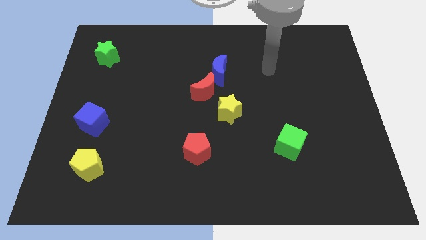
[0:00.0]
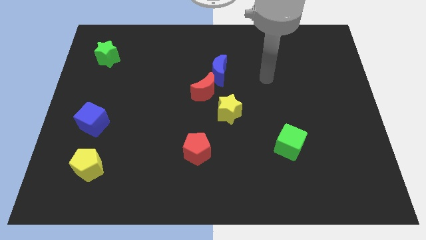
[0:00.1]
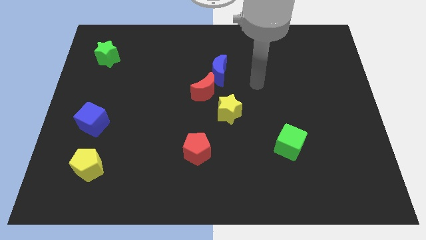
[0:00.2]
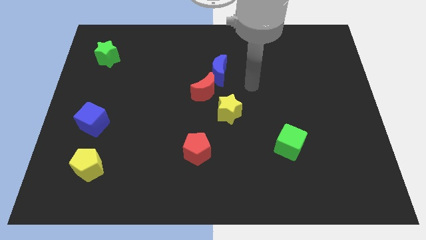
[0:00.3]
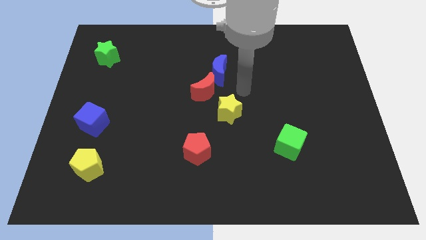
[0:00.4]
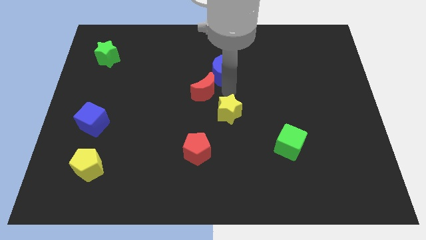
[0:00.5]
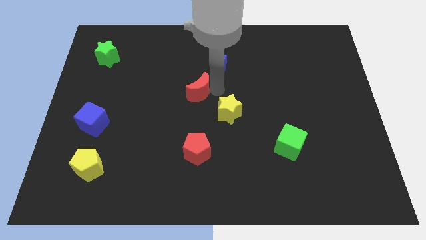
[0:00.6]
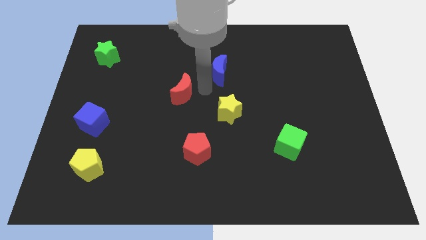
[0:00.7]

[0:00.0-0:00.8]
separate the blue moon from the red moon

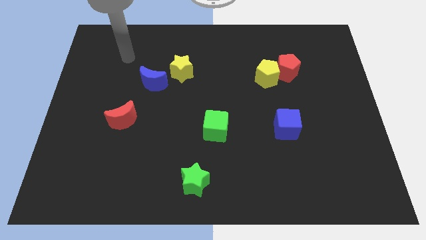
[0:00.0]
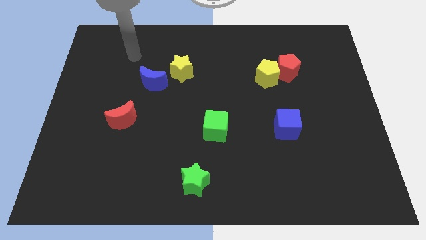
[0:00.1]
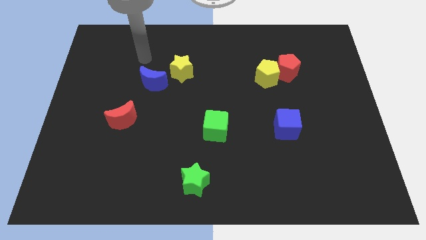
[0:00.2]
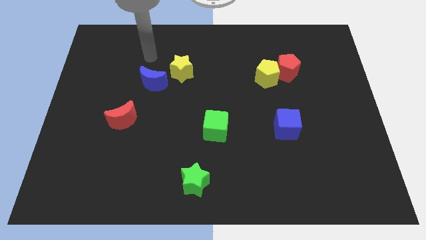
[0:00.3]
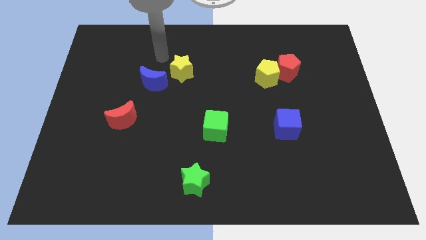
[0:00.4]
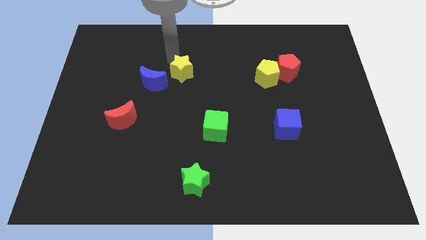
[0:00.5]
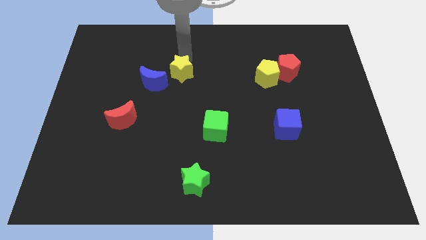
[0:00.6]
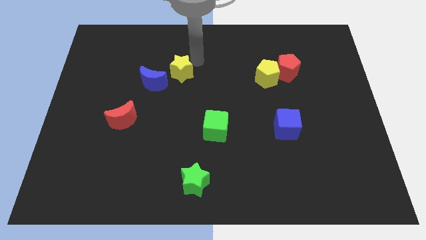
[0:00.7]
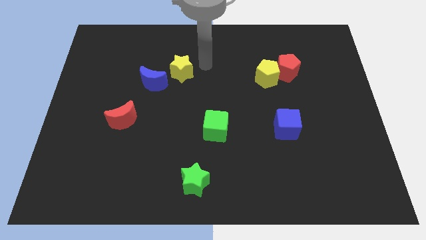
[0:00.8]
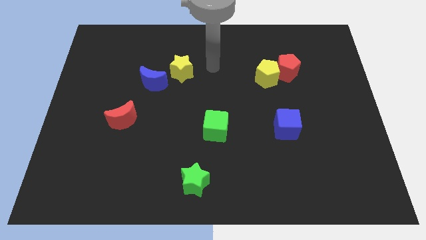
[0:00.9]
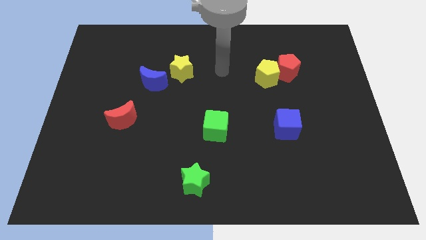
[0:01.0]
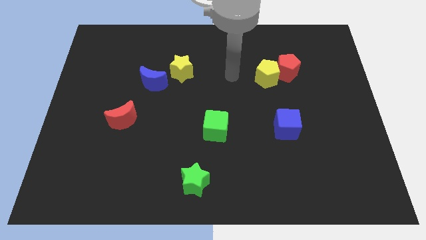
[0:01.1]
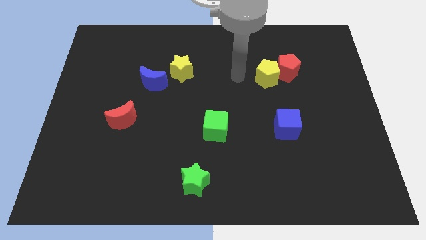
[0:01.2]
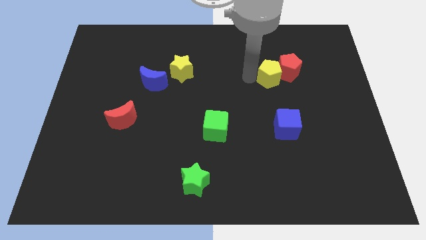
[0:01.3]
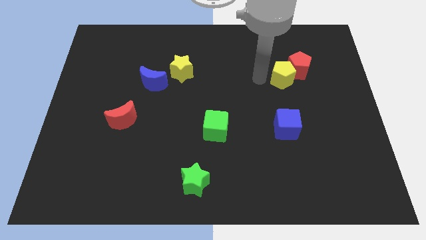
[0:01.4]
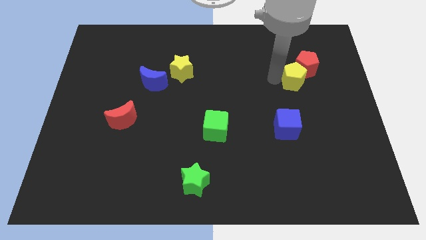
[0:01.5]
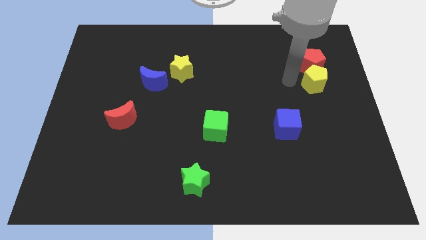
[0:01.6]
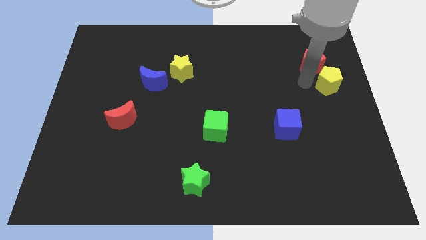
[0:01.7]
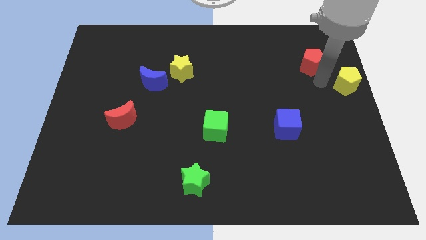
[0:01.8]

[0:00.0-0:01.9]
pull the red pentagon apart from the yellow pentagon

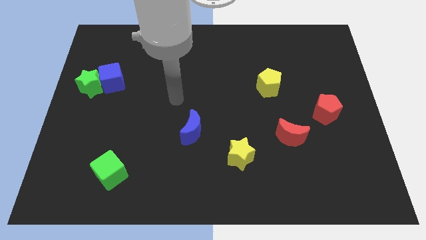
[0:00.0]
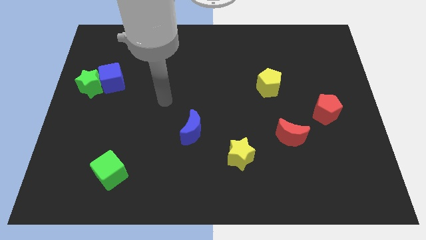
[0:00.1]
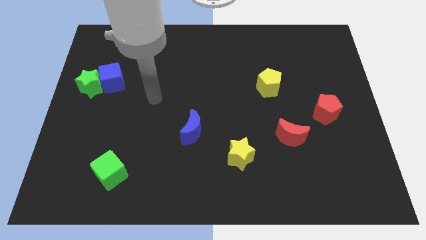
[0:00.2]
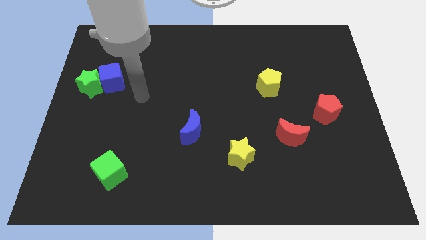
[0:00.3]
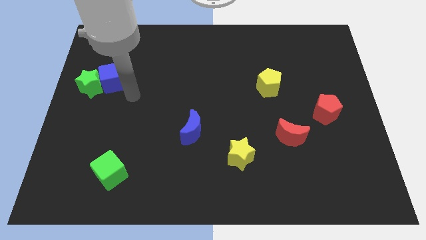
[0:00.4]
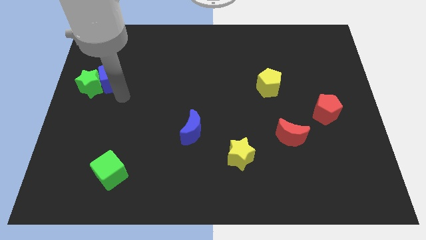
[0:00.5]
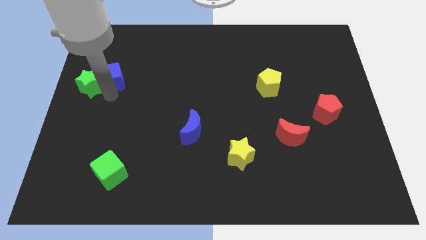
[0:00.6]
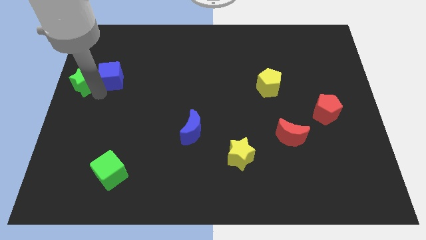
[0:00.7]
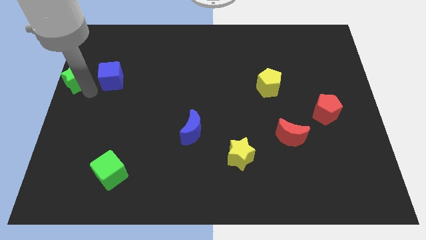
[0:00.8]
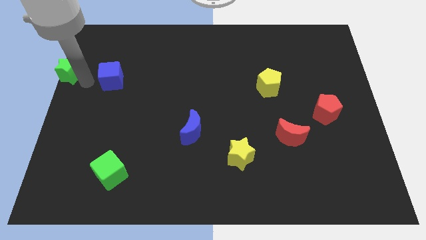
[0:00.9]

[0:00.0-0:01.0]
move the blue cube away from the green star

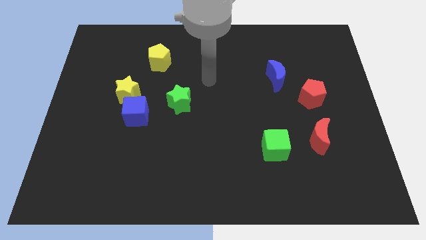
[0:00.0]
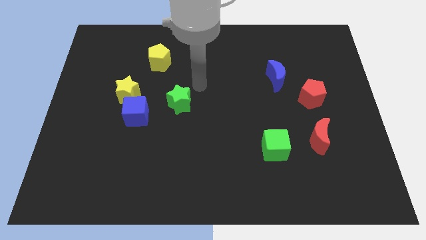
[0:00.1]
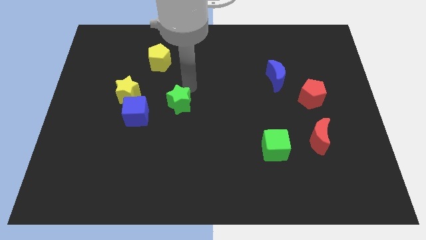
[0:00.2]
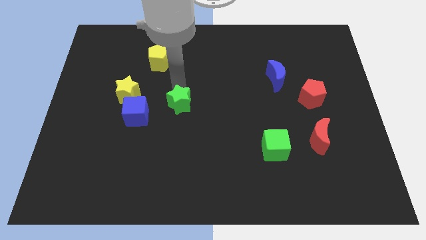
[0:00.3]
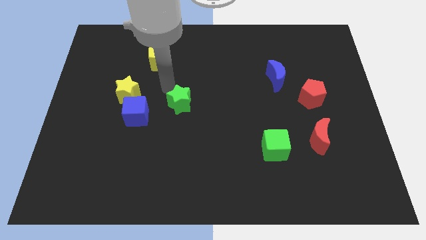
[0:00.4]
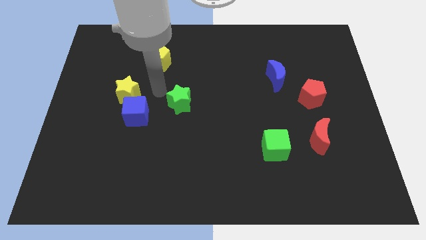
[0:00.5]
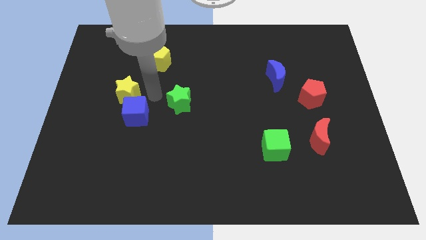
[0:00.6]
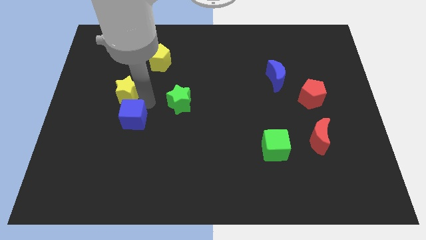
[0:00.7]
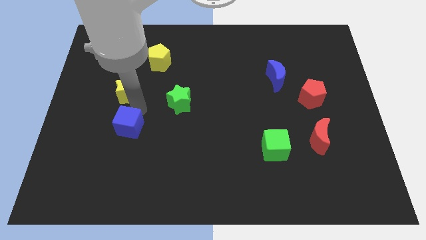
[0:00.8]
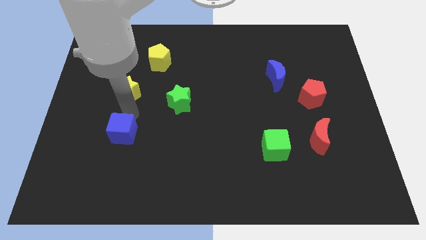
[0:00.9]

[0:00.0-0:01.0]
move the yellow star away from the blue cube

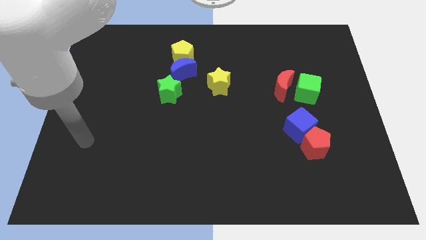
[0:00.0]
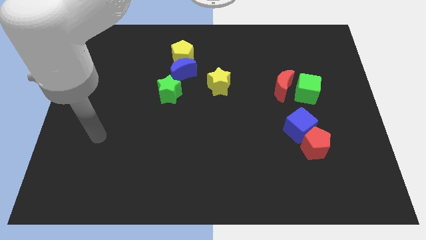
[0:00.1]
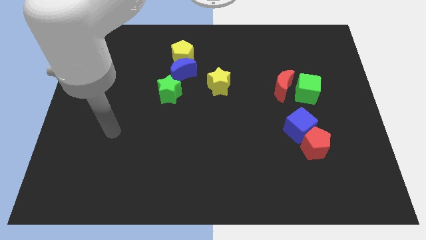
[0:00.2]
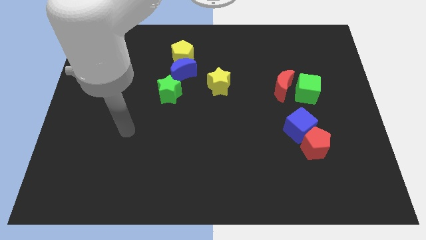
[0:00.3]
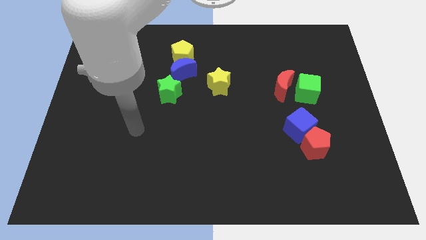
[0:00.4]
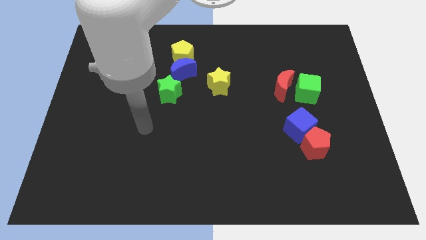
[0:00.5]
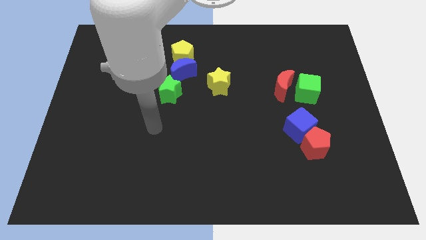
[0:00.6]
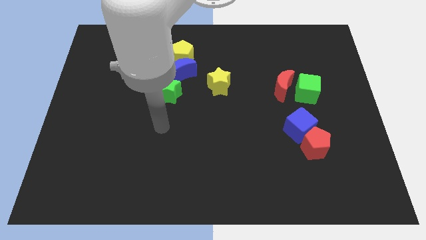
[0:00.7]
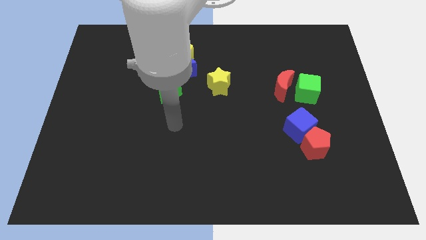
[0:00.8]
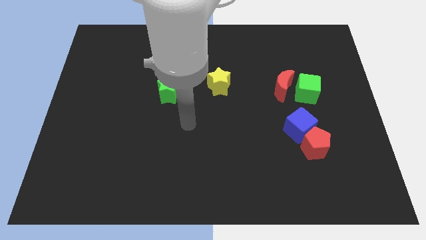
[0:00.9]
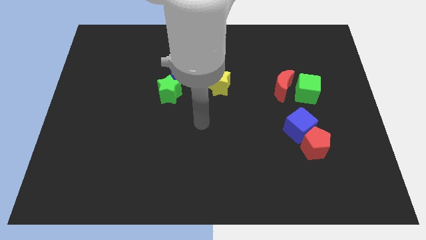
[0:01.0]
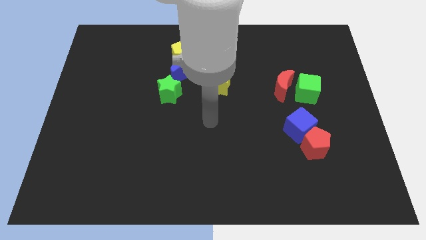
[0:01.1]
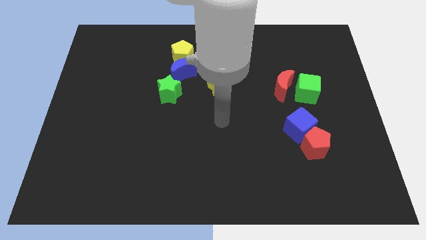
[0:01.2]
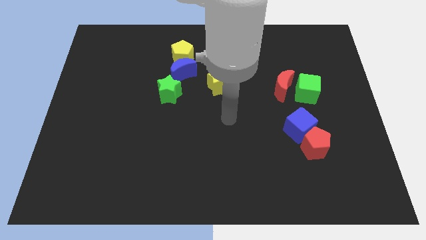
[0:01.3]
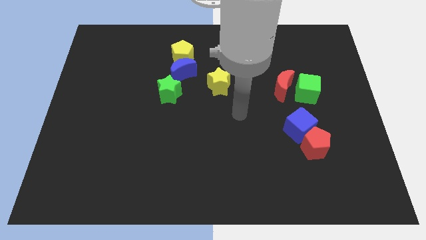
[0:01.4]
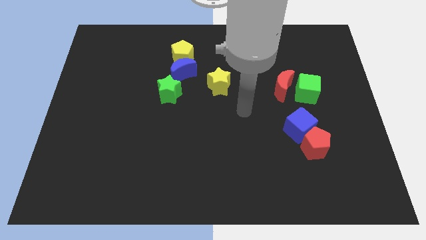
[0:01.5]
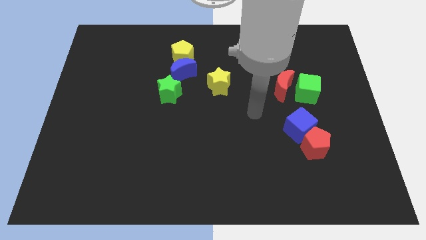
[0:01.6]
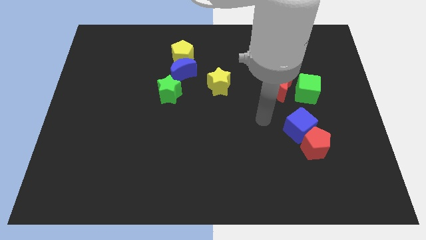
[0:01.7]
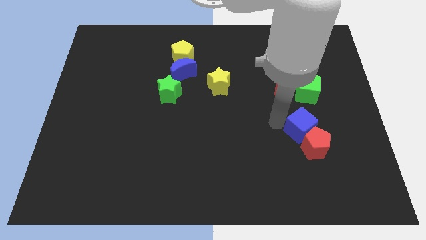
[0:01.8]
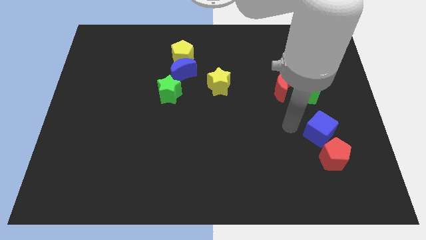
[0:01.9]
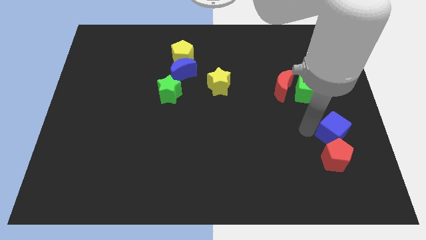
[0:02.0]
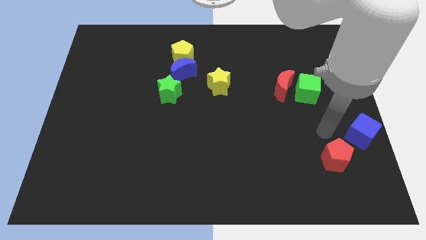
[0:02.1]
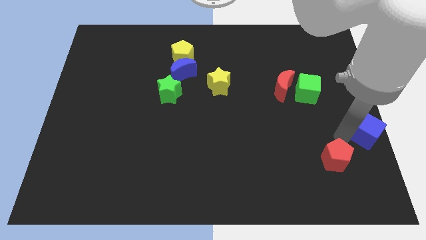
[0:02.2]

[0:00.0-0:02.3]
move the red pentagon away from the blue cube

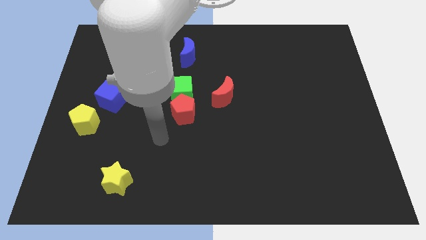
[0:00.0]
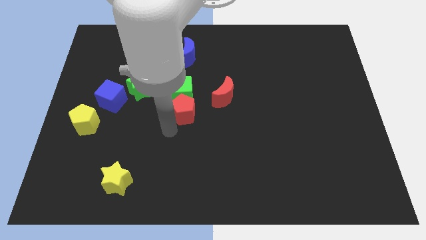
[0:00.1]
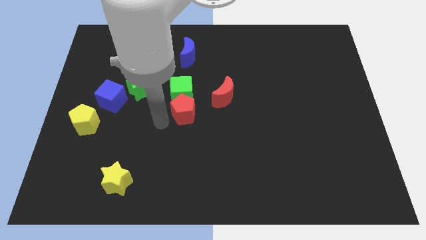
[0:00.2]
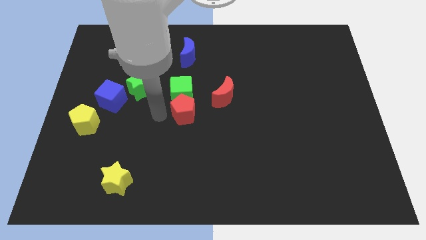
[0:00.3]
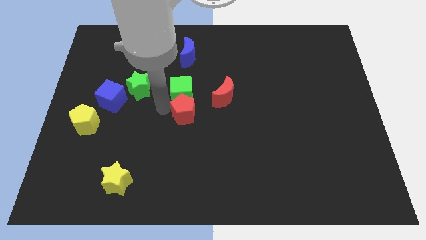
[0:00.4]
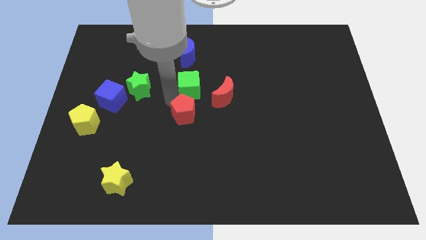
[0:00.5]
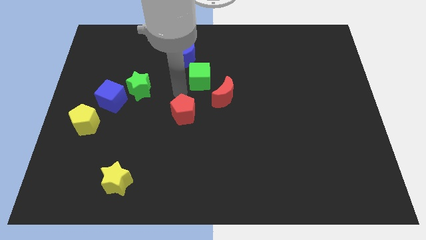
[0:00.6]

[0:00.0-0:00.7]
pull the red pentagon apart from the green cube

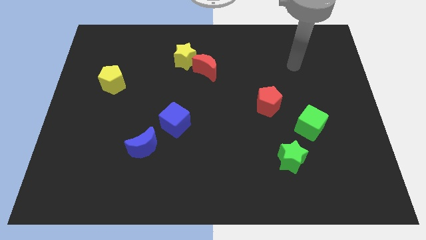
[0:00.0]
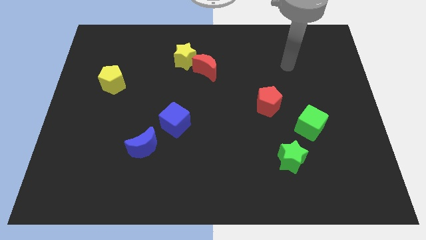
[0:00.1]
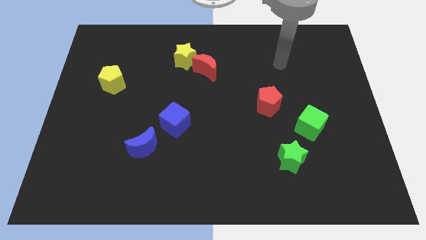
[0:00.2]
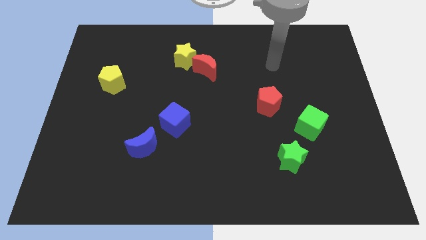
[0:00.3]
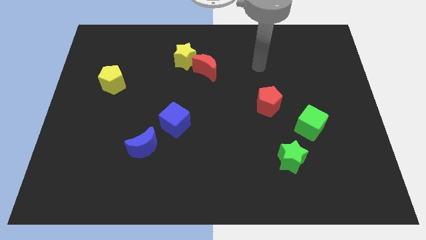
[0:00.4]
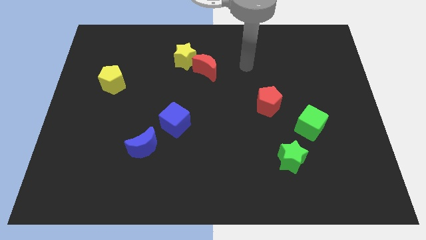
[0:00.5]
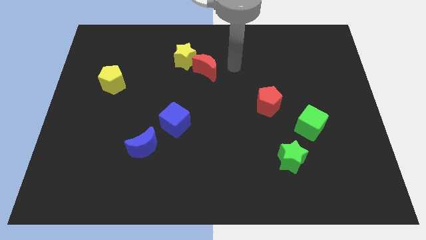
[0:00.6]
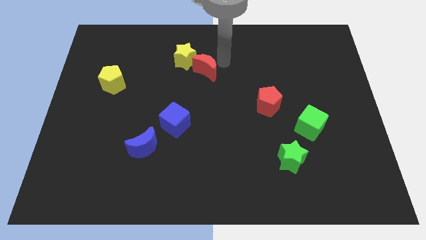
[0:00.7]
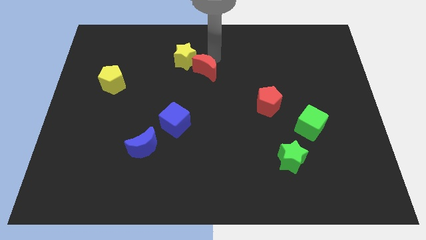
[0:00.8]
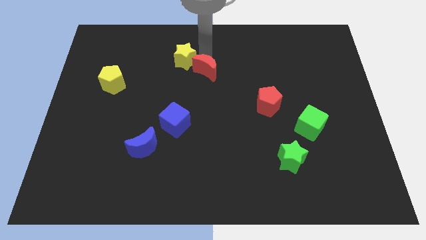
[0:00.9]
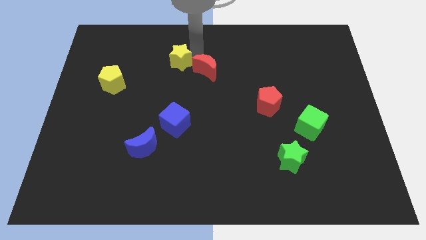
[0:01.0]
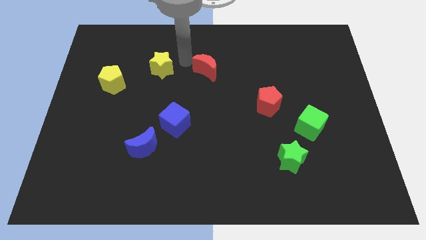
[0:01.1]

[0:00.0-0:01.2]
pull the red moon apart from the yellow star

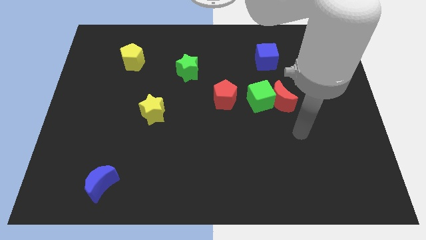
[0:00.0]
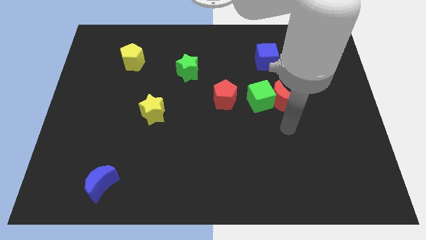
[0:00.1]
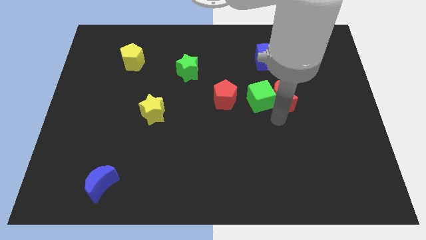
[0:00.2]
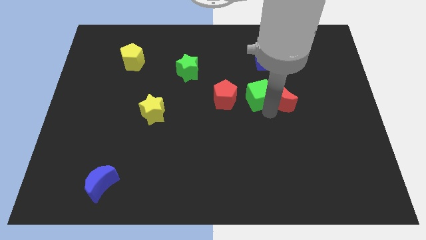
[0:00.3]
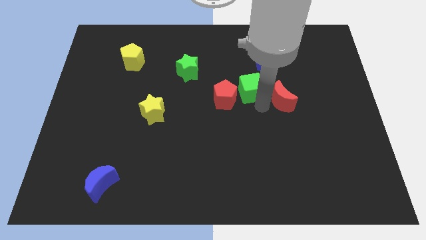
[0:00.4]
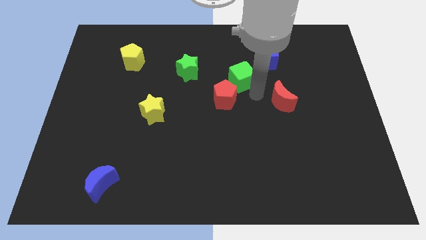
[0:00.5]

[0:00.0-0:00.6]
pull the red moon apart from the green cube
